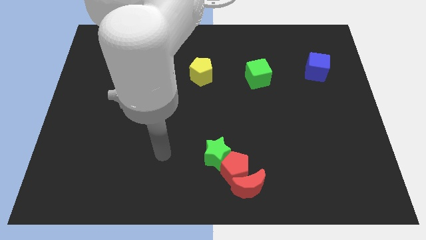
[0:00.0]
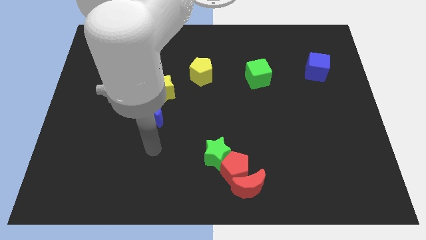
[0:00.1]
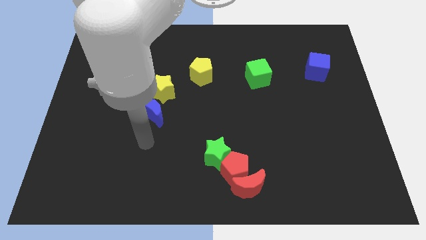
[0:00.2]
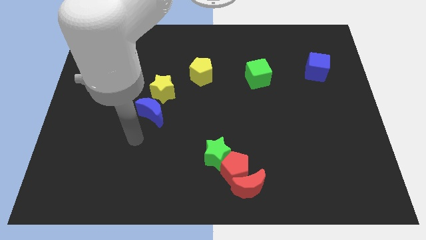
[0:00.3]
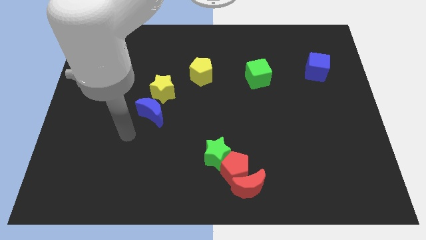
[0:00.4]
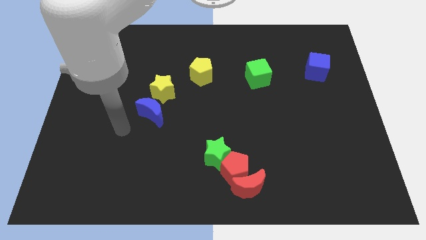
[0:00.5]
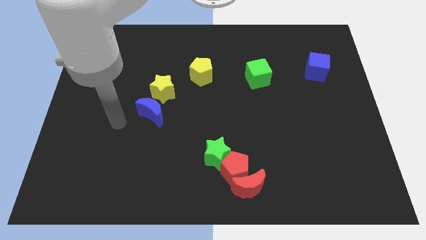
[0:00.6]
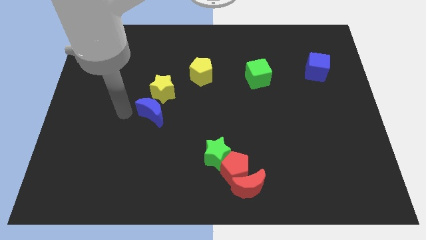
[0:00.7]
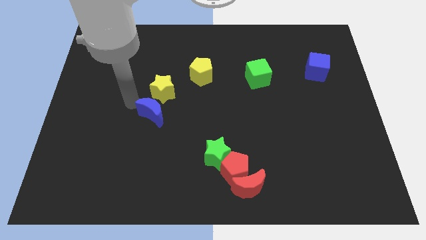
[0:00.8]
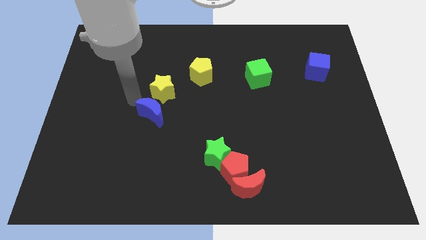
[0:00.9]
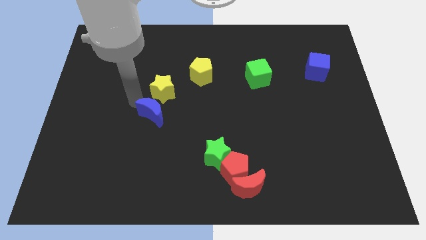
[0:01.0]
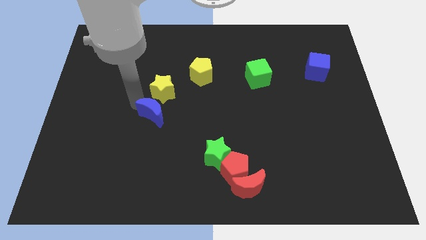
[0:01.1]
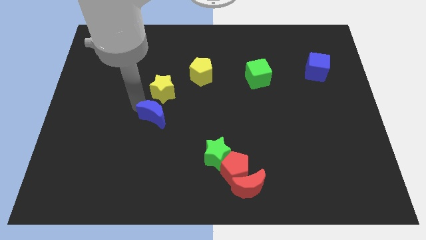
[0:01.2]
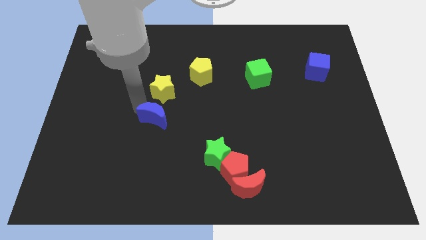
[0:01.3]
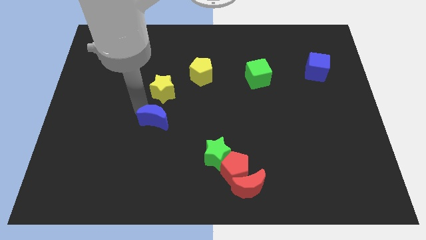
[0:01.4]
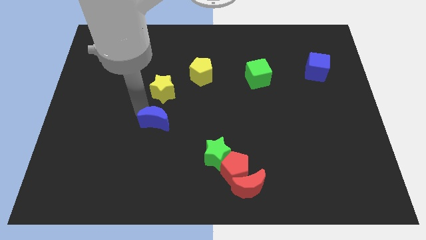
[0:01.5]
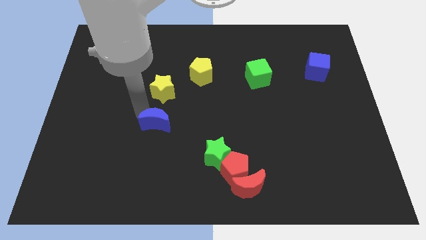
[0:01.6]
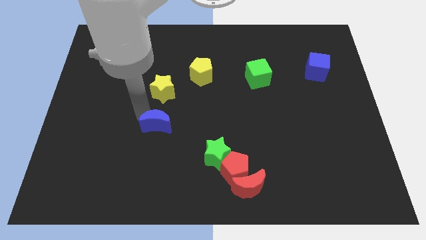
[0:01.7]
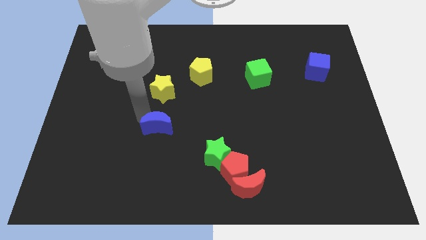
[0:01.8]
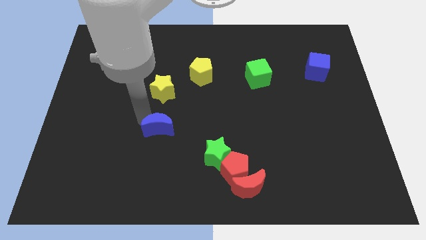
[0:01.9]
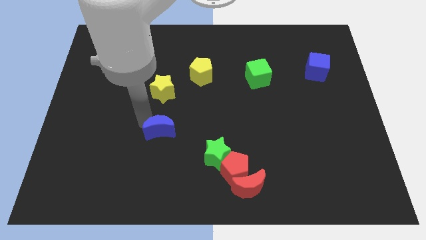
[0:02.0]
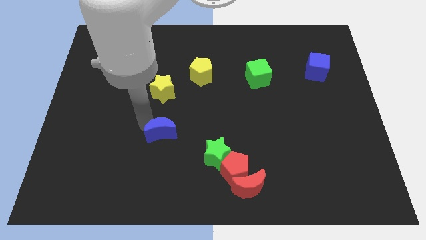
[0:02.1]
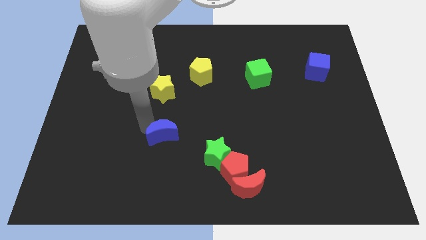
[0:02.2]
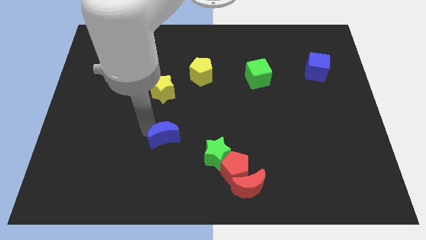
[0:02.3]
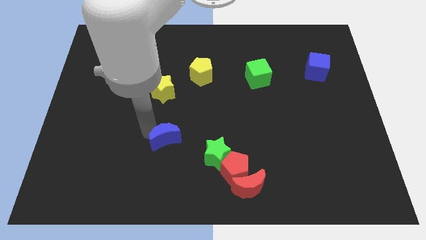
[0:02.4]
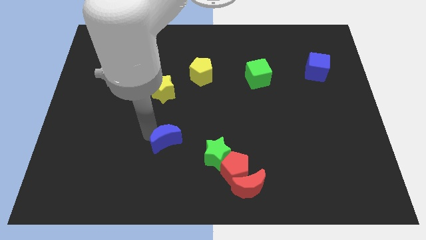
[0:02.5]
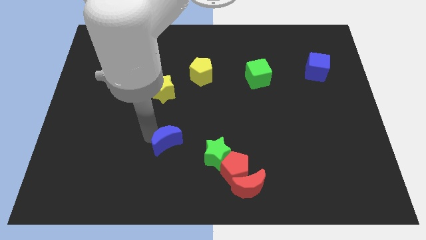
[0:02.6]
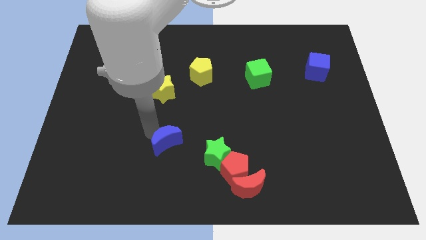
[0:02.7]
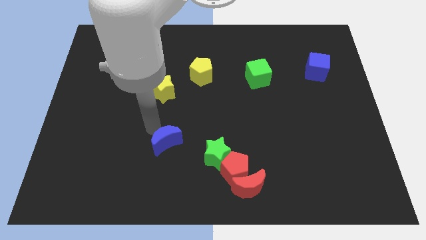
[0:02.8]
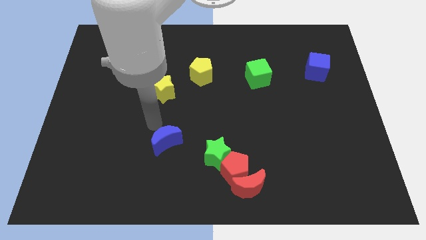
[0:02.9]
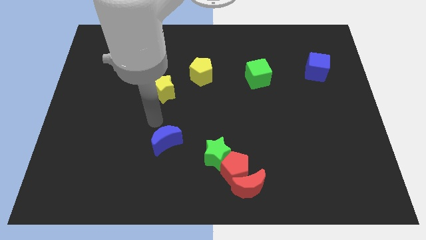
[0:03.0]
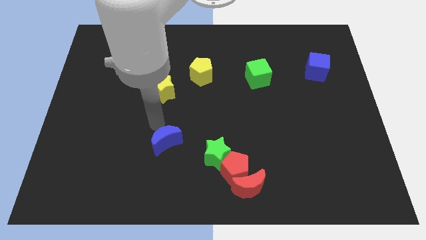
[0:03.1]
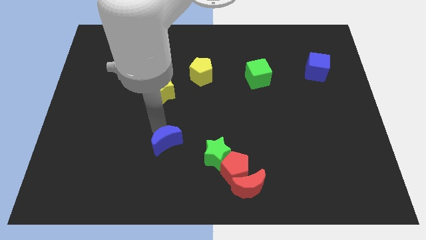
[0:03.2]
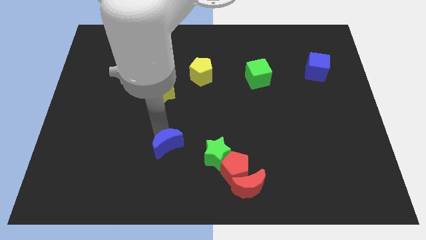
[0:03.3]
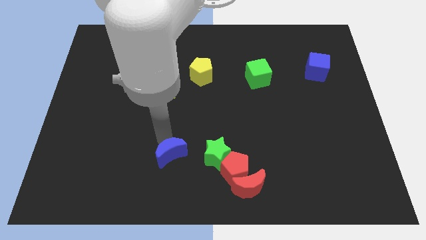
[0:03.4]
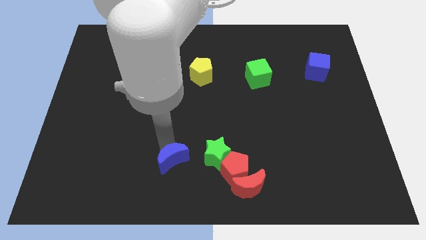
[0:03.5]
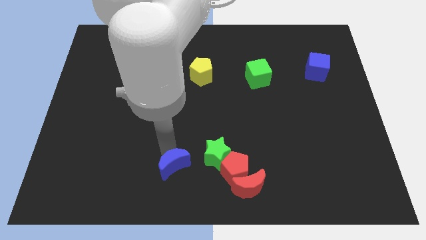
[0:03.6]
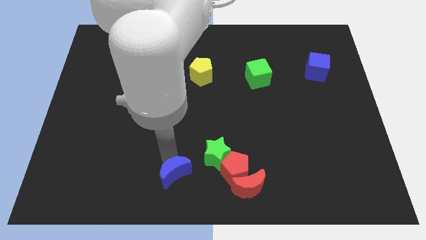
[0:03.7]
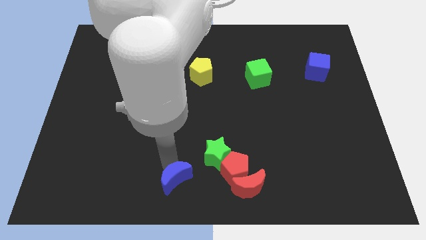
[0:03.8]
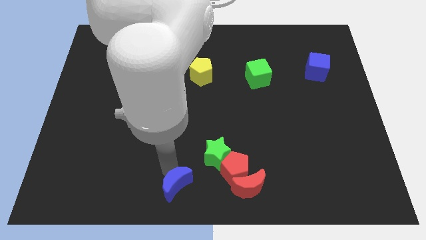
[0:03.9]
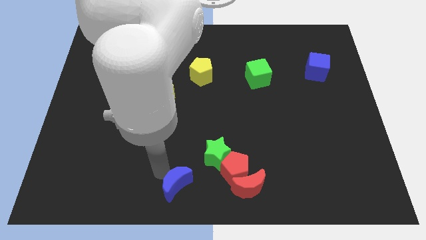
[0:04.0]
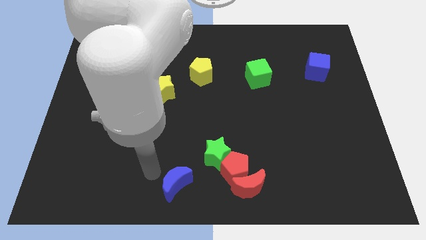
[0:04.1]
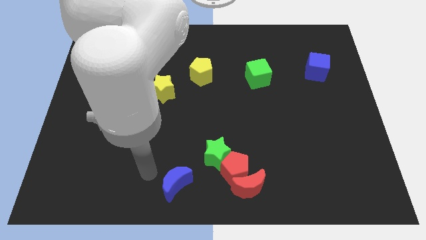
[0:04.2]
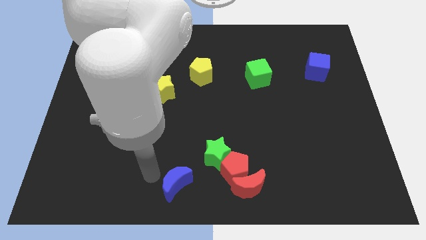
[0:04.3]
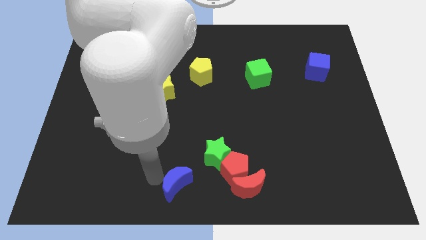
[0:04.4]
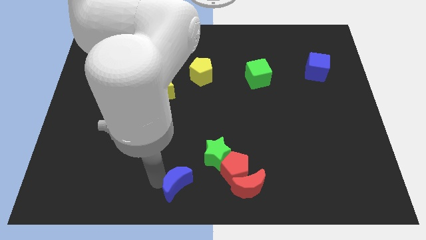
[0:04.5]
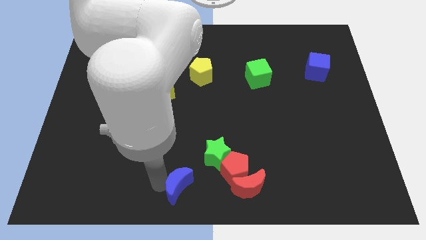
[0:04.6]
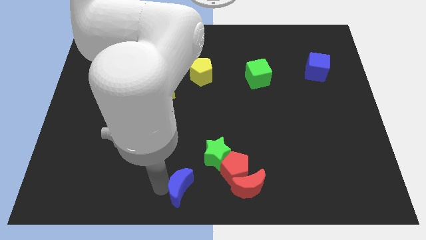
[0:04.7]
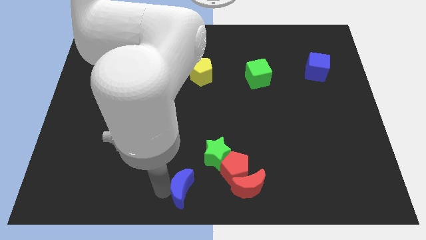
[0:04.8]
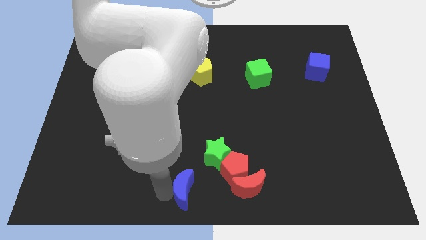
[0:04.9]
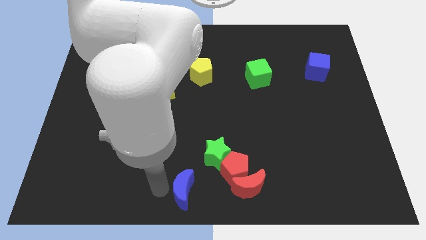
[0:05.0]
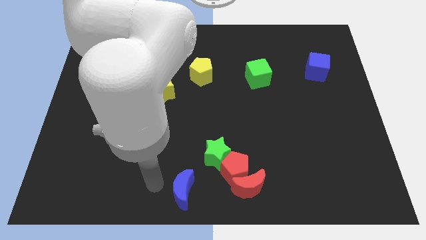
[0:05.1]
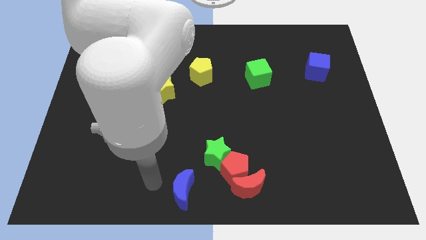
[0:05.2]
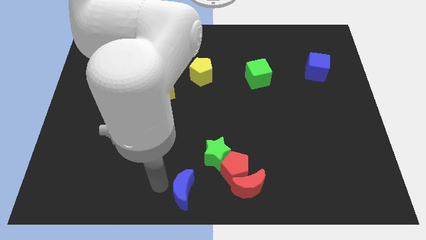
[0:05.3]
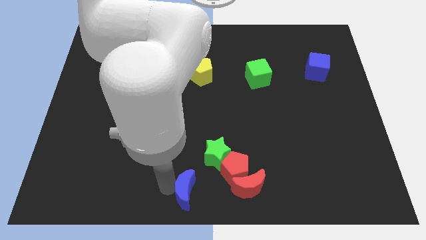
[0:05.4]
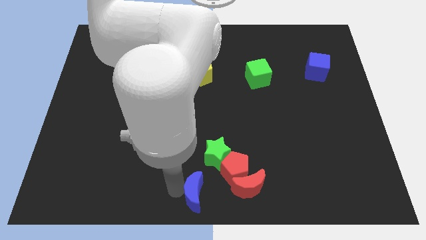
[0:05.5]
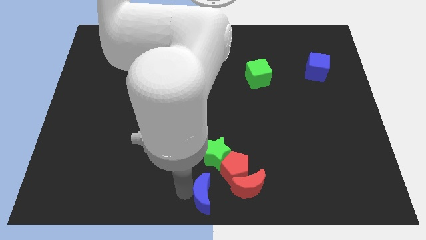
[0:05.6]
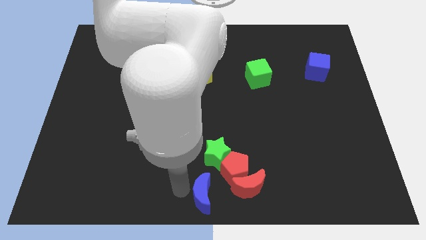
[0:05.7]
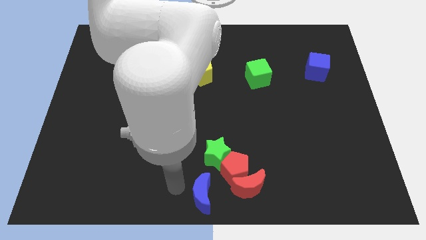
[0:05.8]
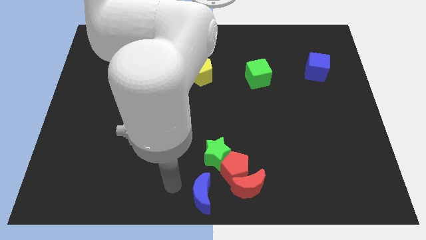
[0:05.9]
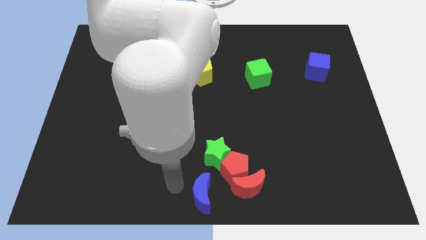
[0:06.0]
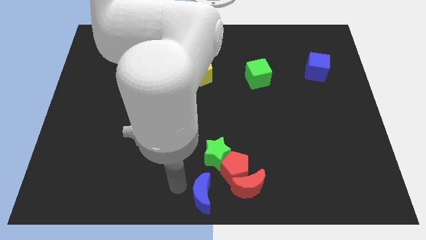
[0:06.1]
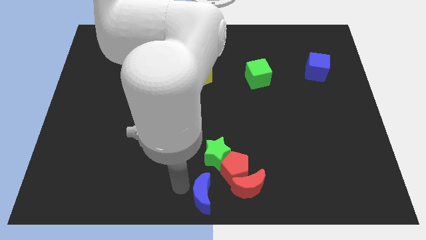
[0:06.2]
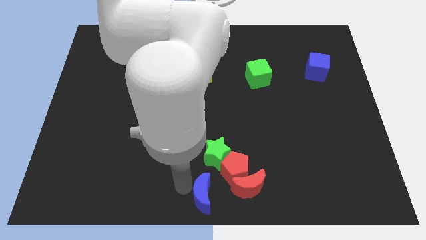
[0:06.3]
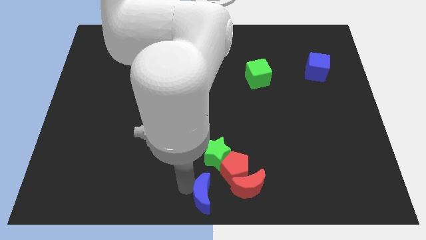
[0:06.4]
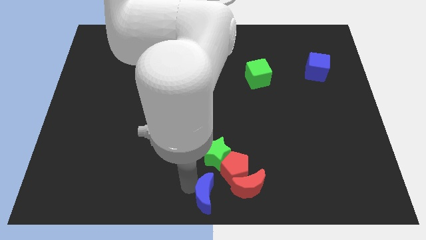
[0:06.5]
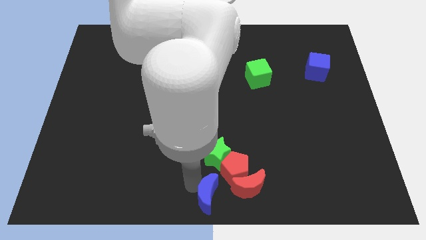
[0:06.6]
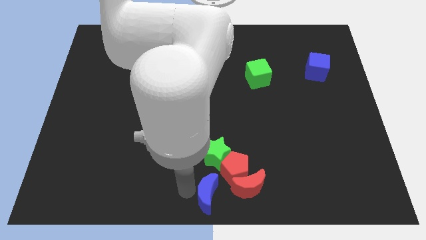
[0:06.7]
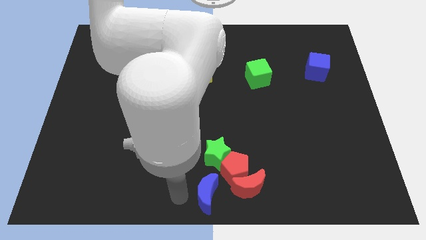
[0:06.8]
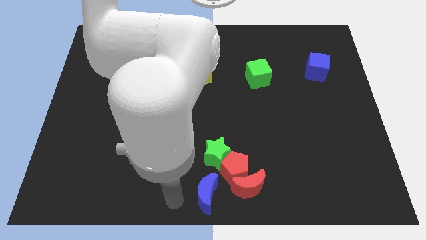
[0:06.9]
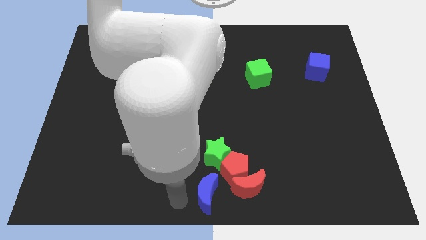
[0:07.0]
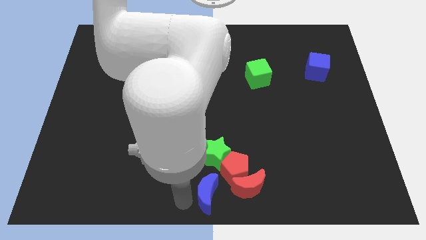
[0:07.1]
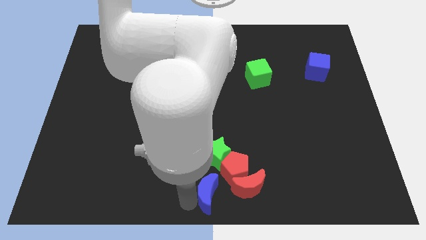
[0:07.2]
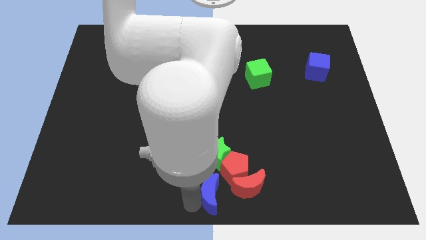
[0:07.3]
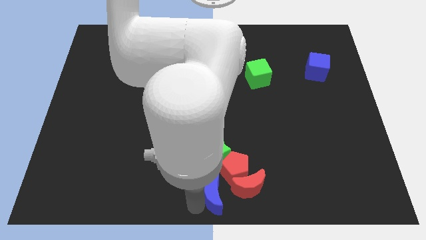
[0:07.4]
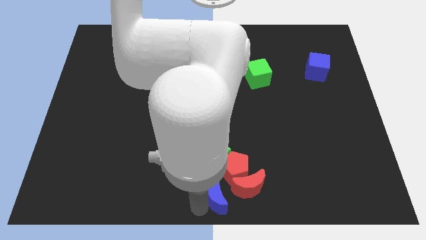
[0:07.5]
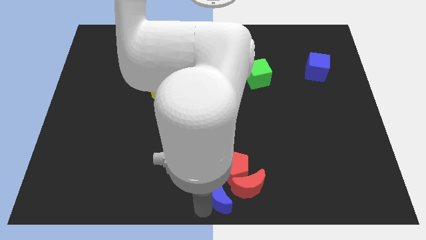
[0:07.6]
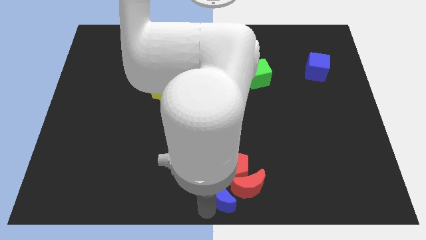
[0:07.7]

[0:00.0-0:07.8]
push the blue moon towards the red moon
